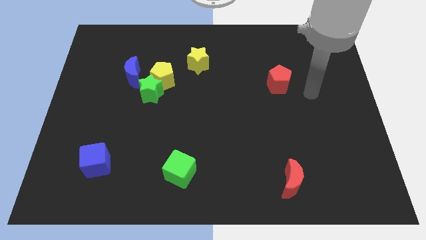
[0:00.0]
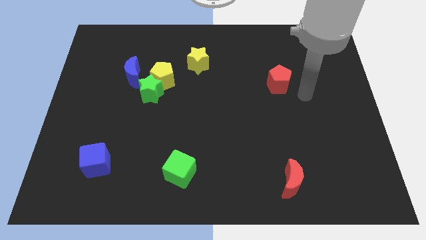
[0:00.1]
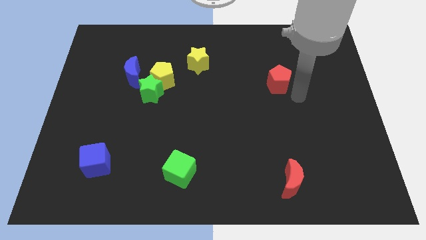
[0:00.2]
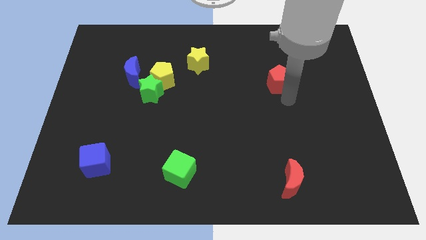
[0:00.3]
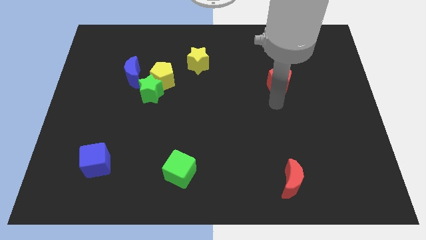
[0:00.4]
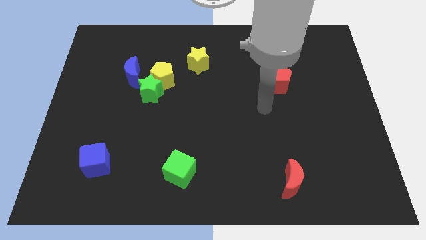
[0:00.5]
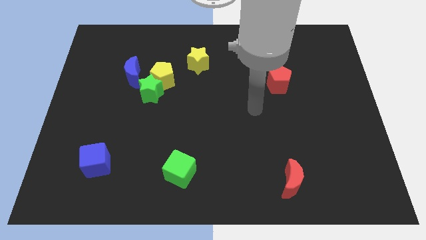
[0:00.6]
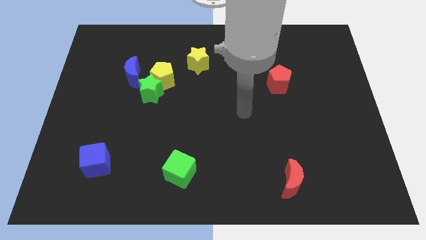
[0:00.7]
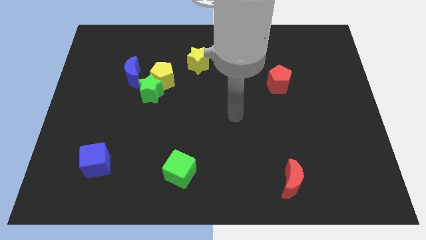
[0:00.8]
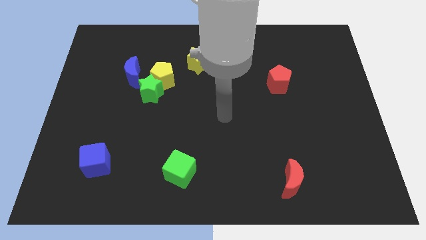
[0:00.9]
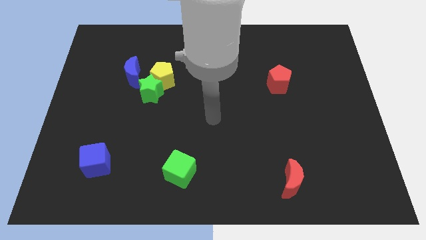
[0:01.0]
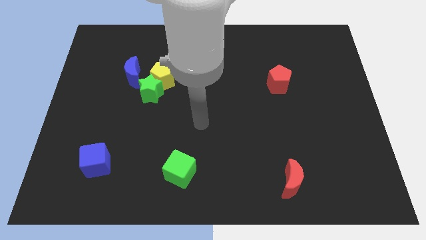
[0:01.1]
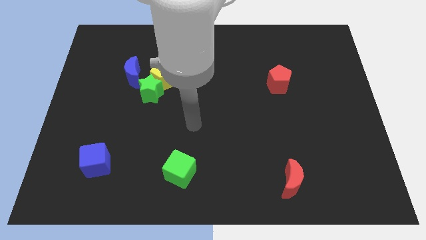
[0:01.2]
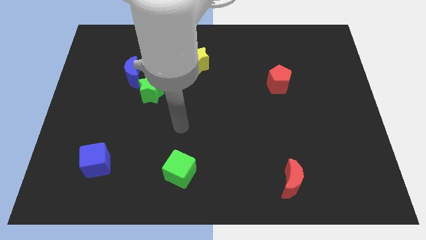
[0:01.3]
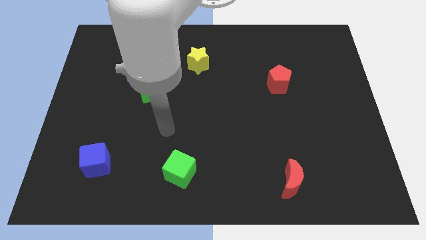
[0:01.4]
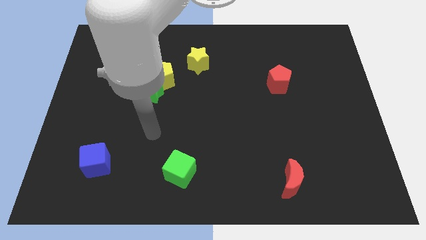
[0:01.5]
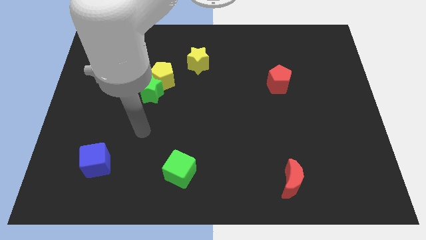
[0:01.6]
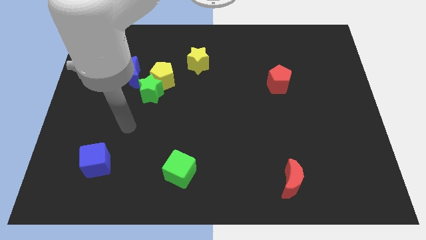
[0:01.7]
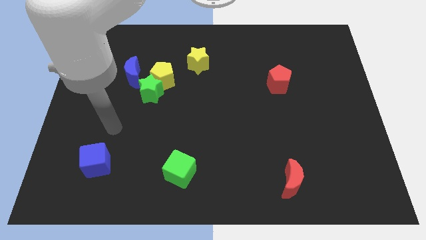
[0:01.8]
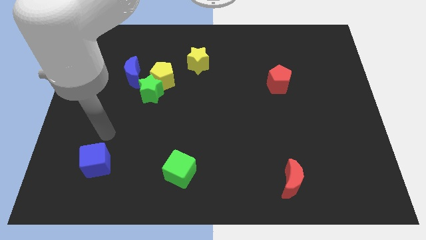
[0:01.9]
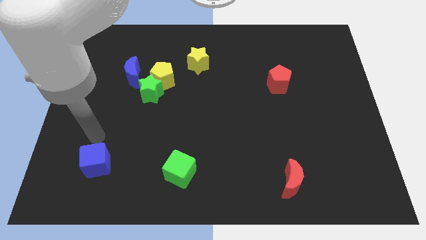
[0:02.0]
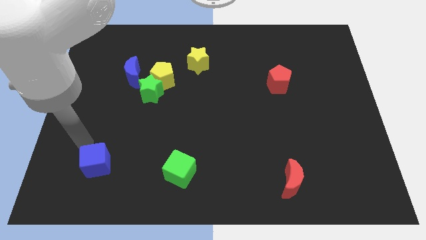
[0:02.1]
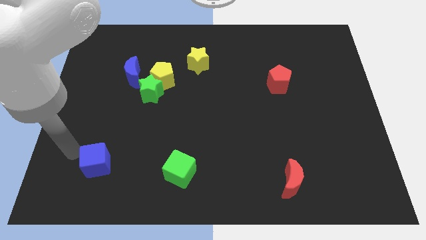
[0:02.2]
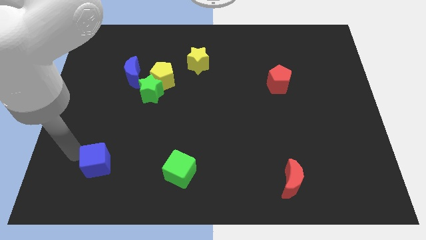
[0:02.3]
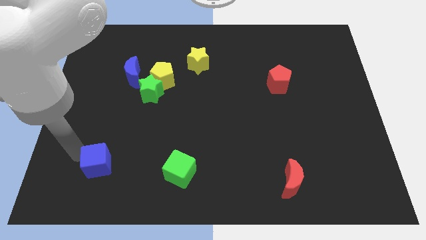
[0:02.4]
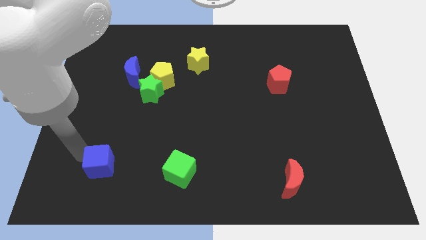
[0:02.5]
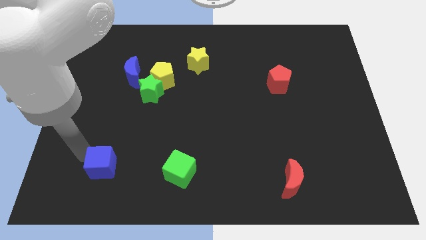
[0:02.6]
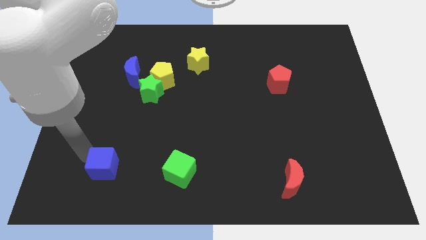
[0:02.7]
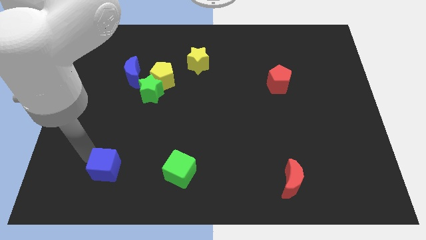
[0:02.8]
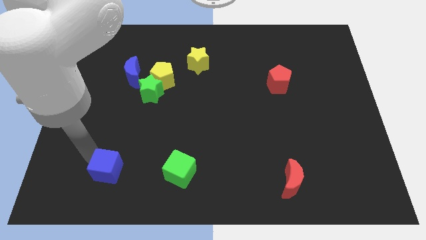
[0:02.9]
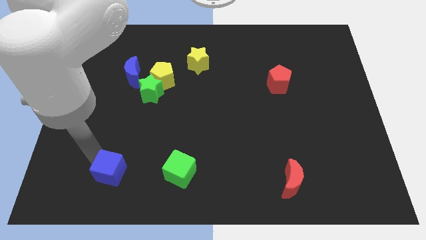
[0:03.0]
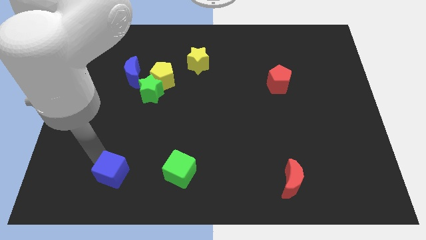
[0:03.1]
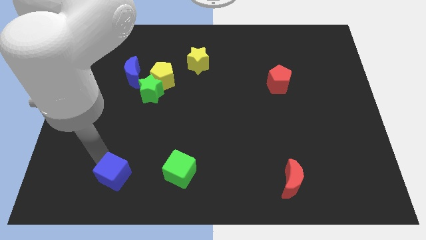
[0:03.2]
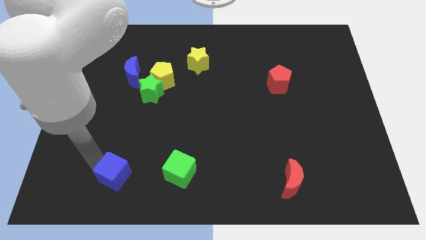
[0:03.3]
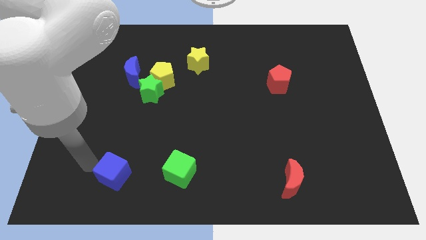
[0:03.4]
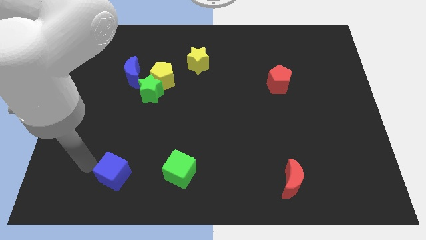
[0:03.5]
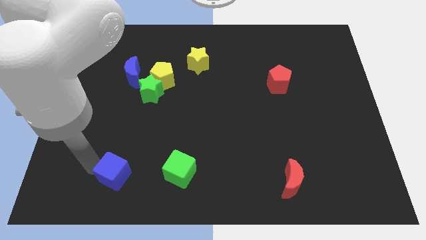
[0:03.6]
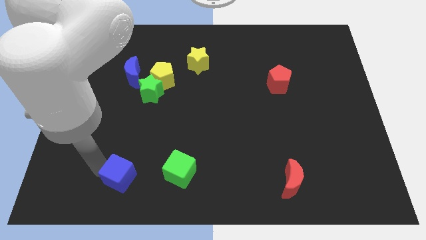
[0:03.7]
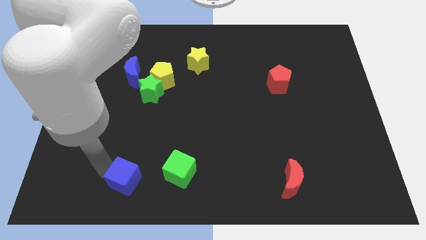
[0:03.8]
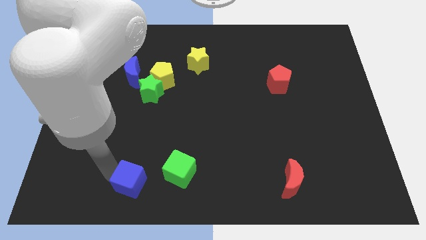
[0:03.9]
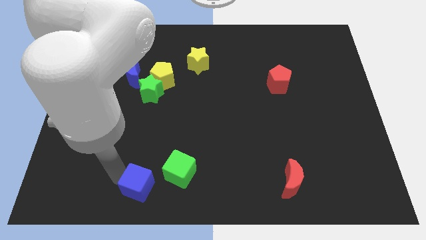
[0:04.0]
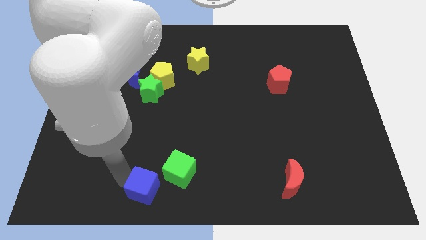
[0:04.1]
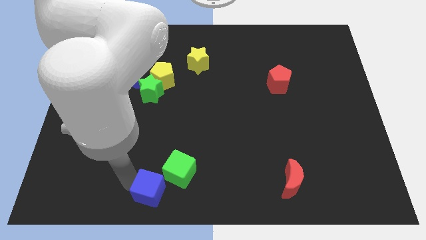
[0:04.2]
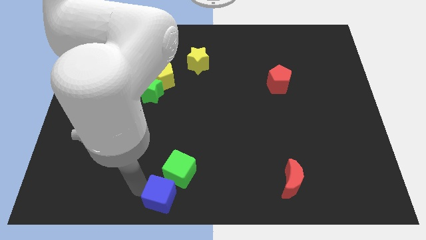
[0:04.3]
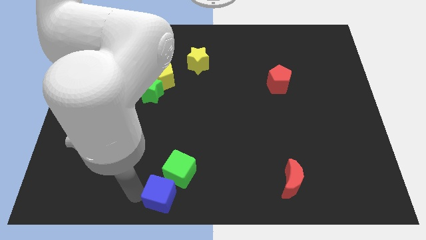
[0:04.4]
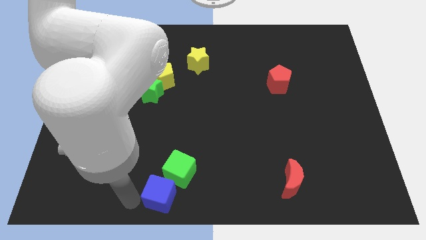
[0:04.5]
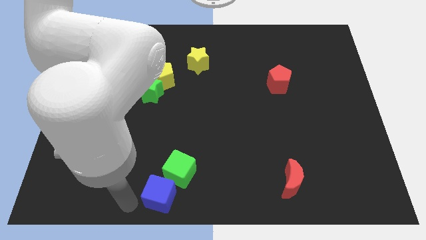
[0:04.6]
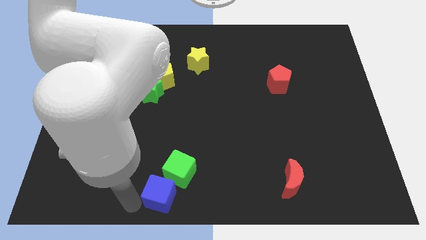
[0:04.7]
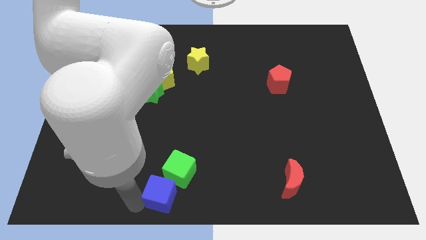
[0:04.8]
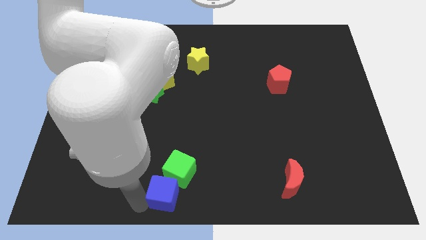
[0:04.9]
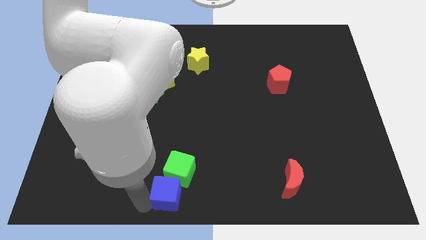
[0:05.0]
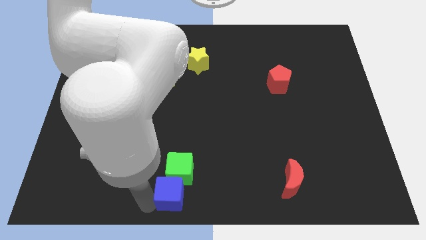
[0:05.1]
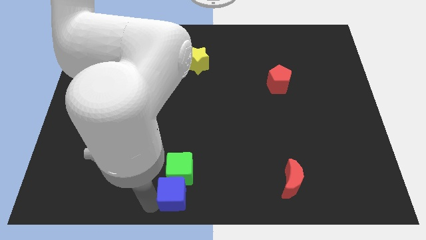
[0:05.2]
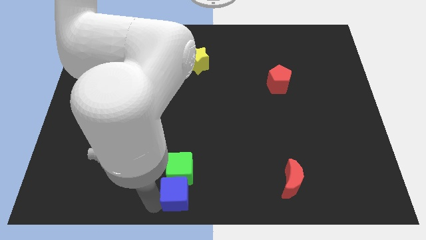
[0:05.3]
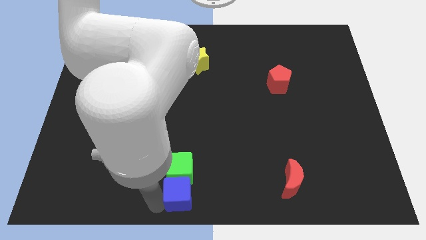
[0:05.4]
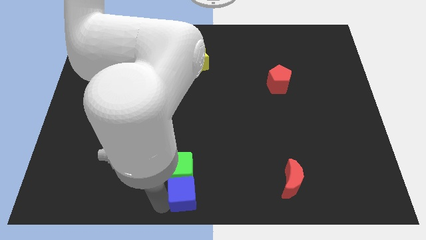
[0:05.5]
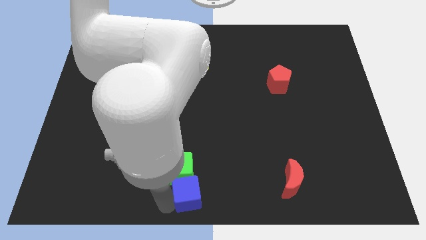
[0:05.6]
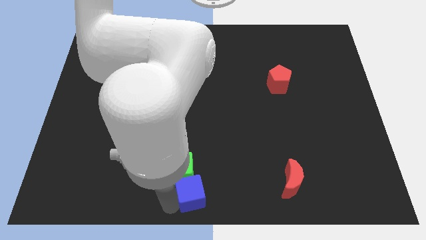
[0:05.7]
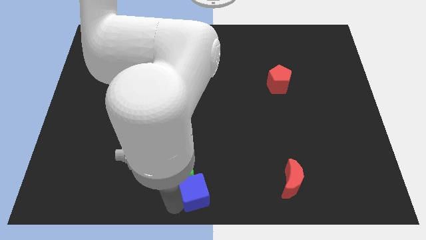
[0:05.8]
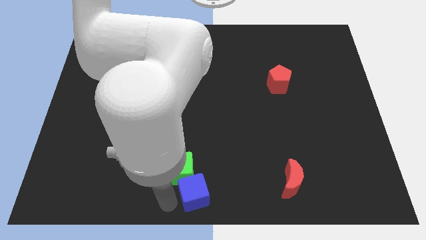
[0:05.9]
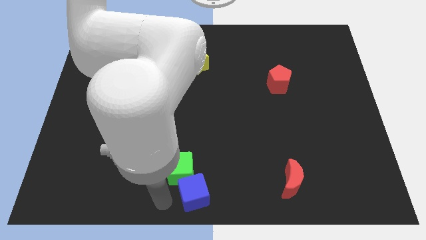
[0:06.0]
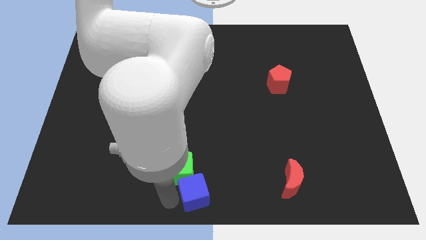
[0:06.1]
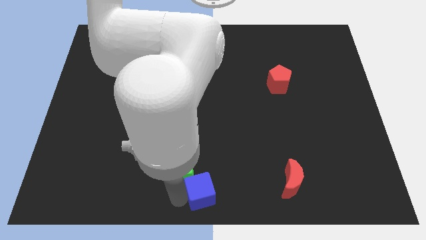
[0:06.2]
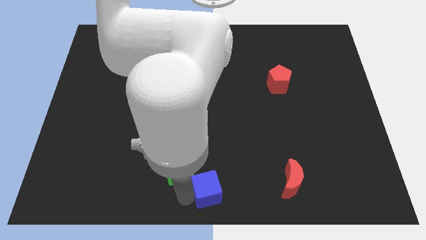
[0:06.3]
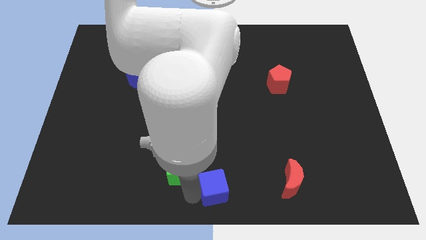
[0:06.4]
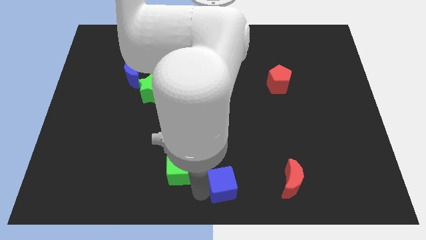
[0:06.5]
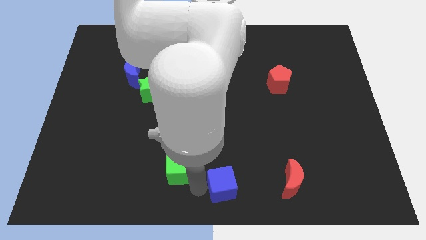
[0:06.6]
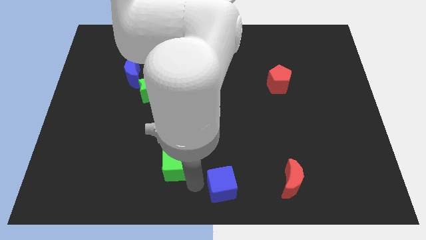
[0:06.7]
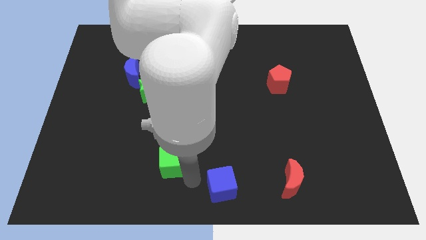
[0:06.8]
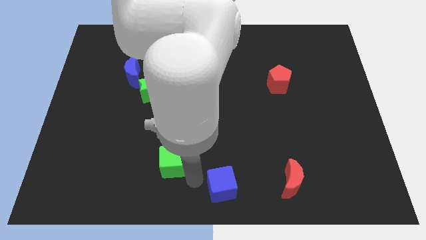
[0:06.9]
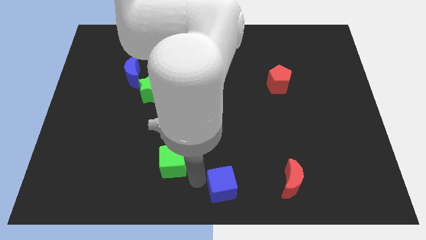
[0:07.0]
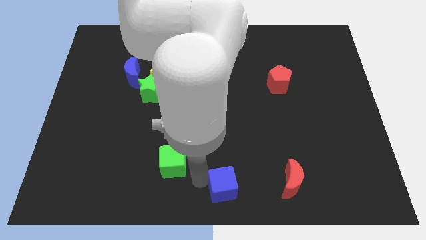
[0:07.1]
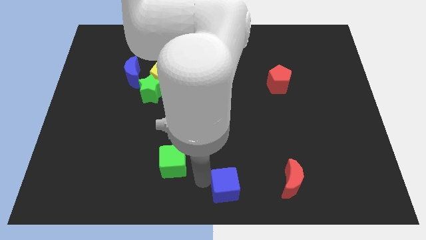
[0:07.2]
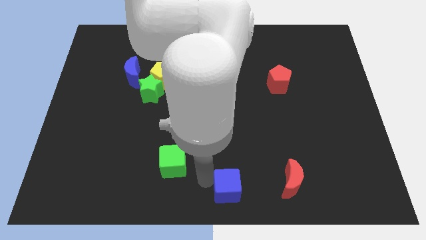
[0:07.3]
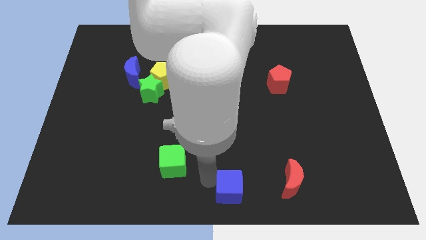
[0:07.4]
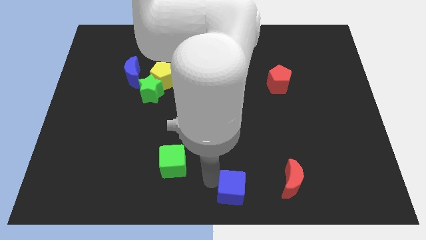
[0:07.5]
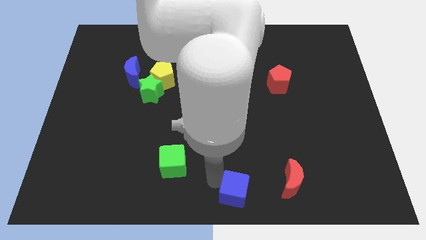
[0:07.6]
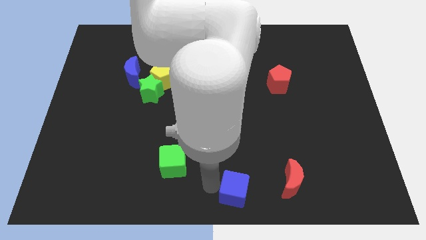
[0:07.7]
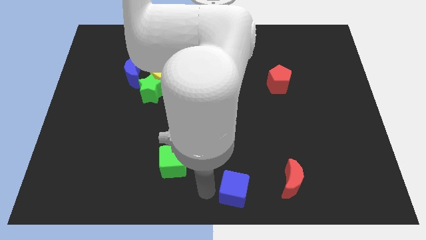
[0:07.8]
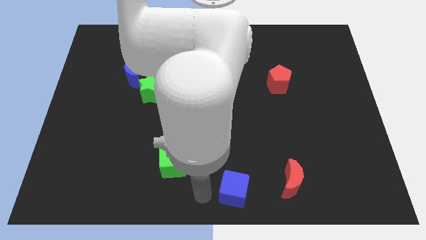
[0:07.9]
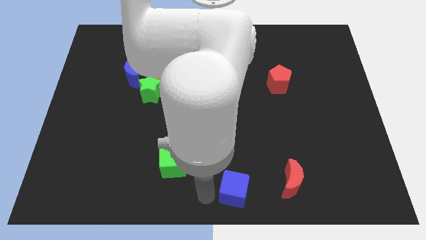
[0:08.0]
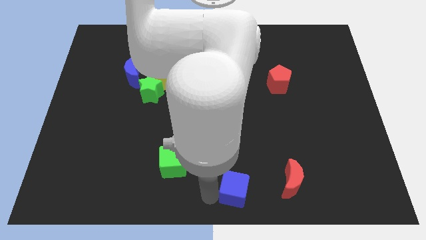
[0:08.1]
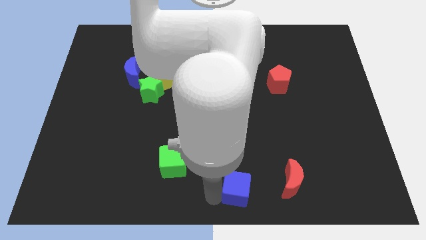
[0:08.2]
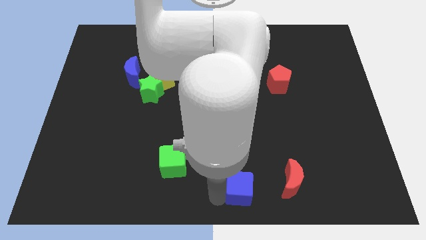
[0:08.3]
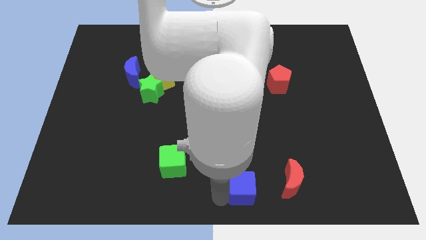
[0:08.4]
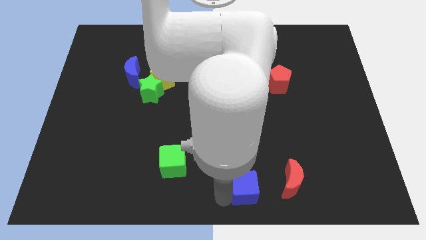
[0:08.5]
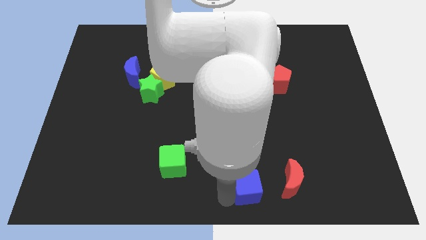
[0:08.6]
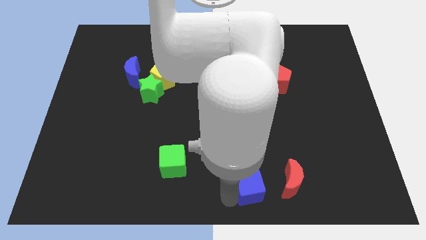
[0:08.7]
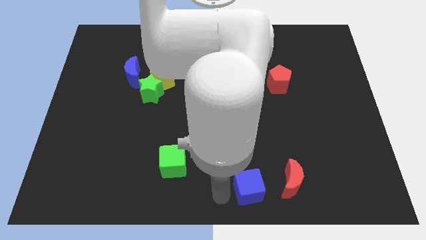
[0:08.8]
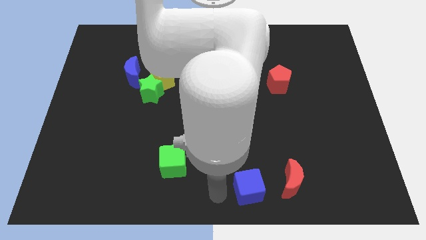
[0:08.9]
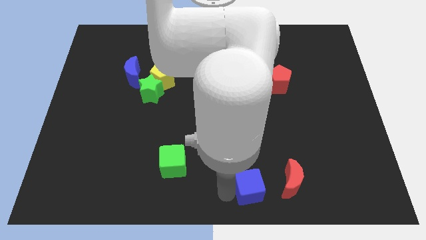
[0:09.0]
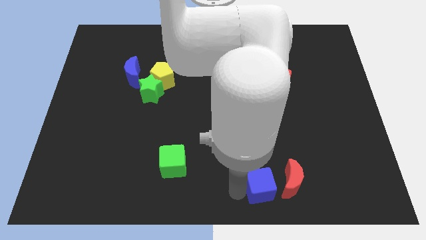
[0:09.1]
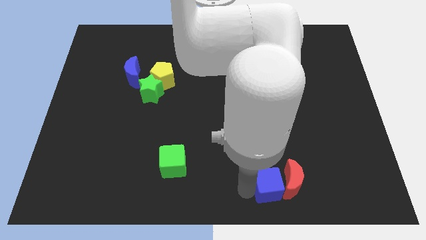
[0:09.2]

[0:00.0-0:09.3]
put the blue cube close to the red moon
